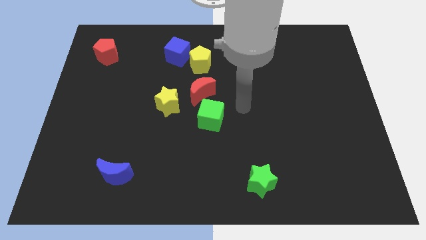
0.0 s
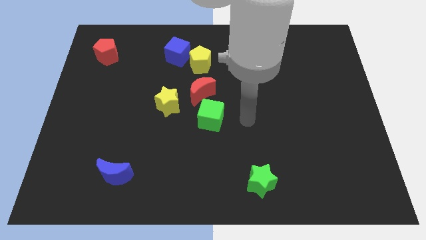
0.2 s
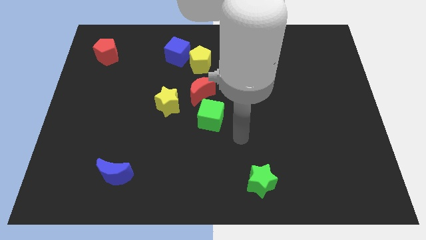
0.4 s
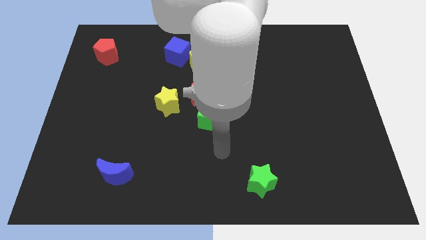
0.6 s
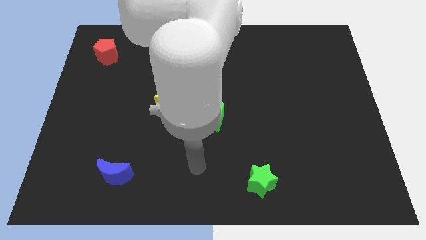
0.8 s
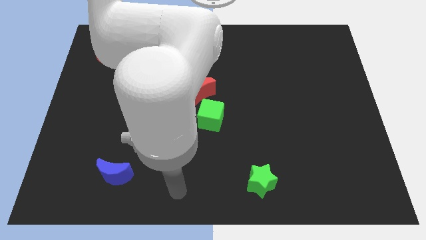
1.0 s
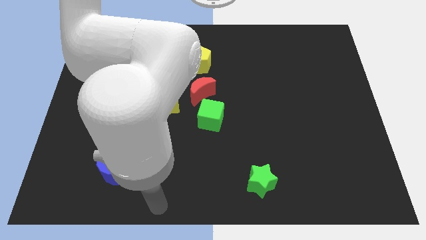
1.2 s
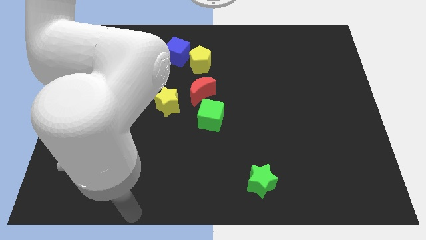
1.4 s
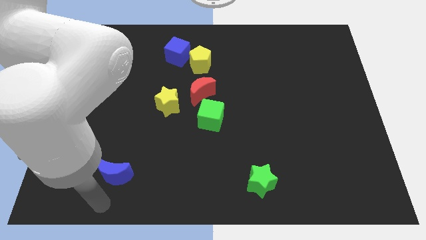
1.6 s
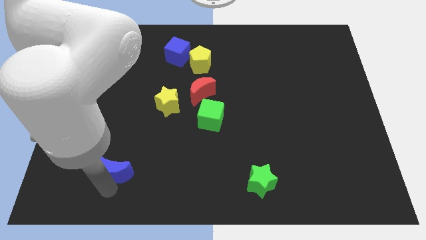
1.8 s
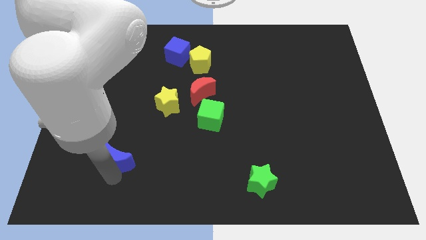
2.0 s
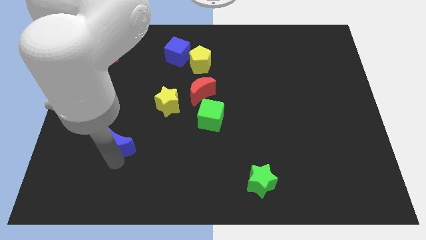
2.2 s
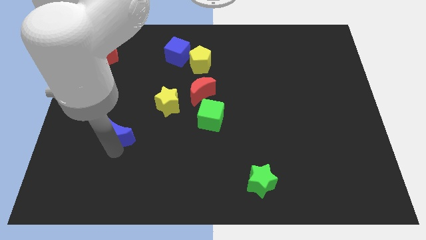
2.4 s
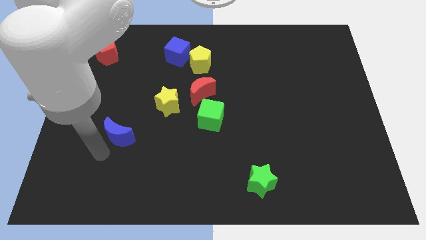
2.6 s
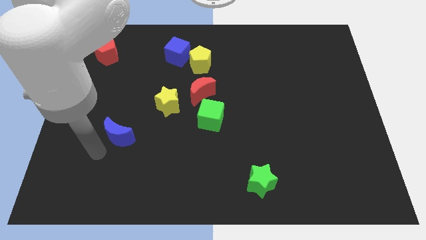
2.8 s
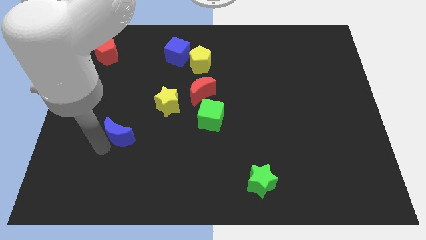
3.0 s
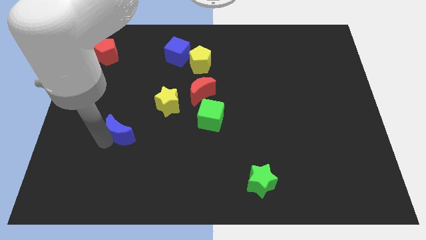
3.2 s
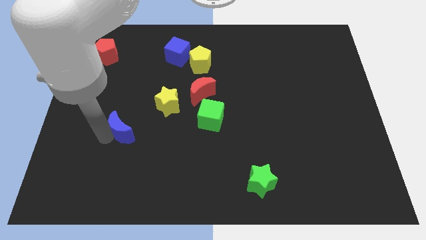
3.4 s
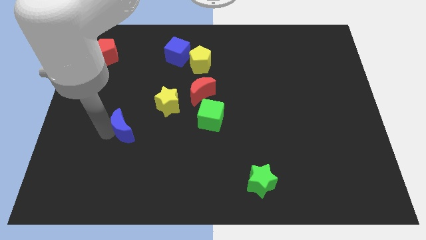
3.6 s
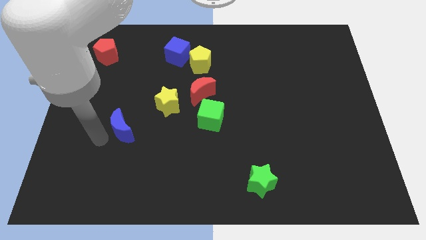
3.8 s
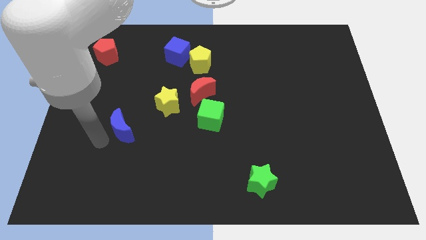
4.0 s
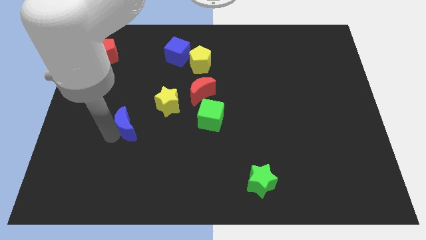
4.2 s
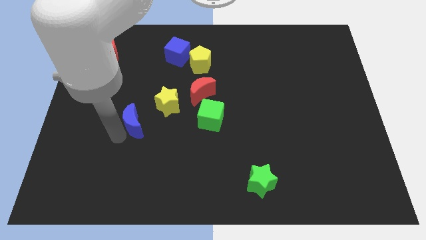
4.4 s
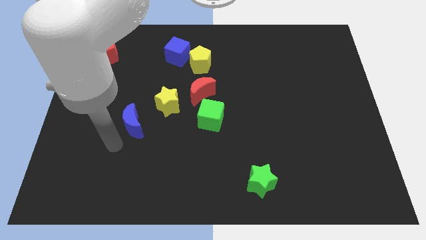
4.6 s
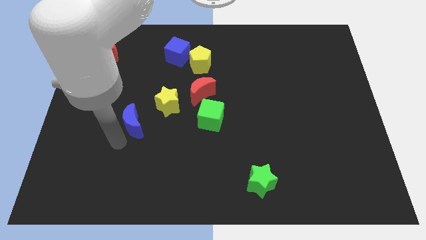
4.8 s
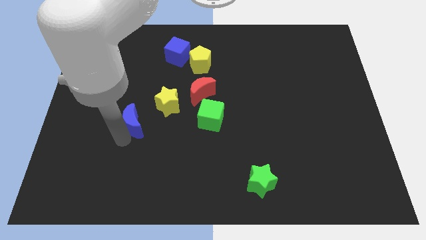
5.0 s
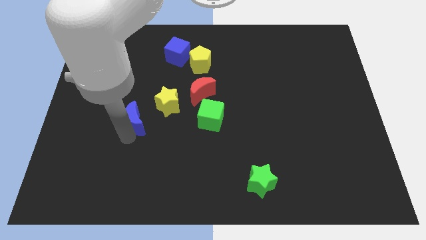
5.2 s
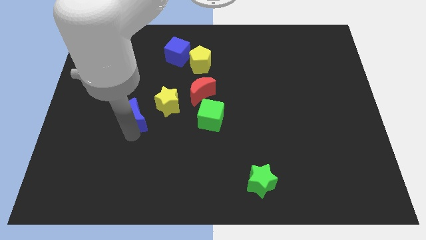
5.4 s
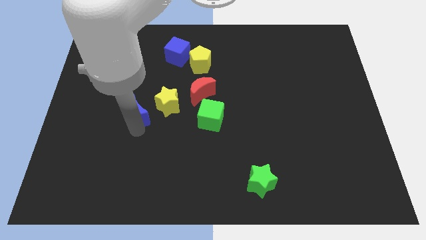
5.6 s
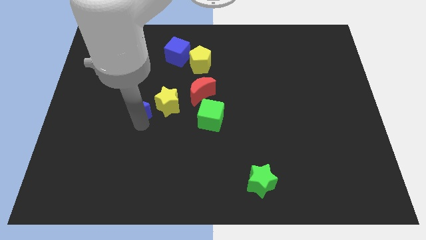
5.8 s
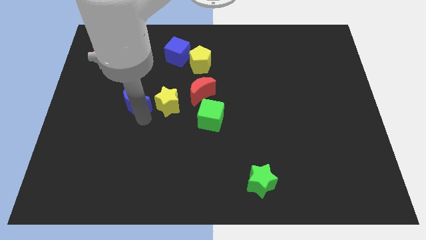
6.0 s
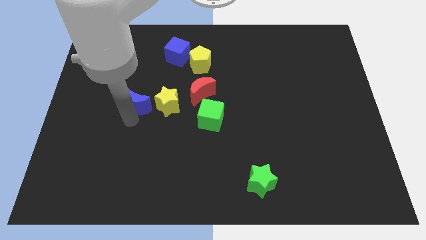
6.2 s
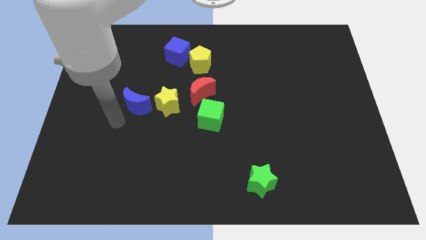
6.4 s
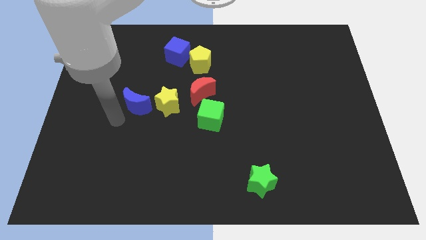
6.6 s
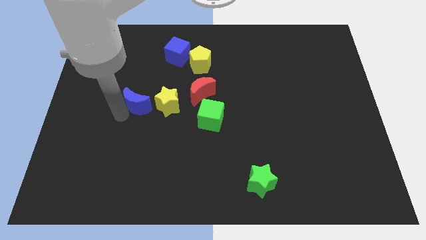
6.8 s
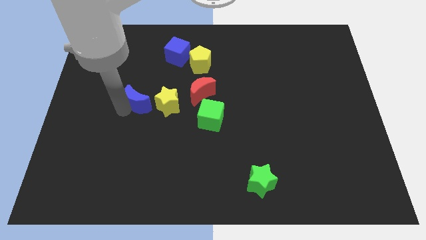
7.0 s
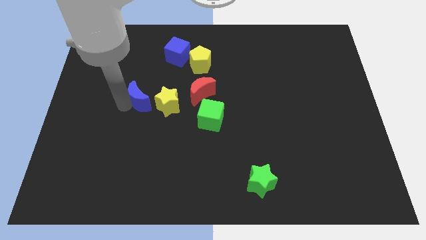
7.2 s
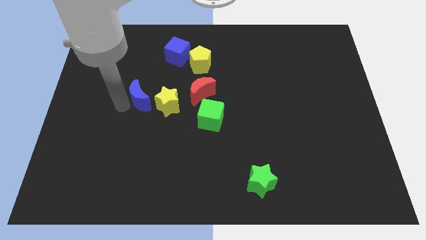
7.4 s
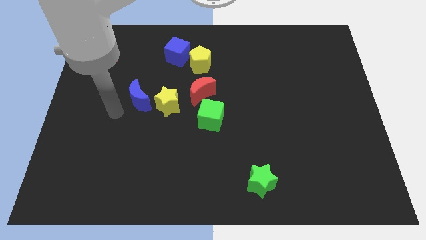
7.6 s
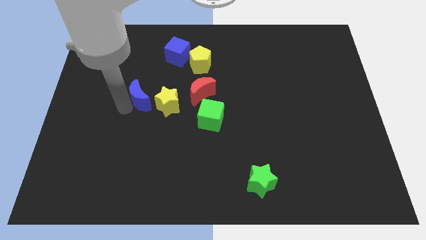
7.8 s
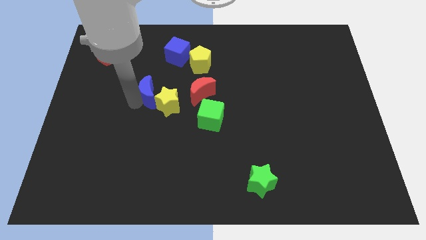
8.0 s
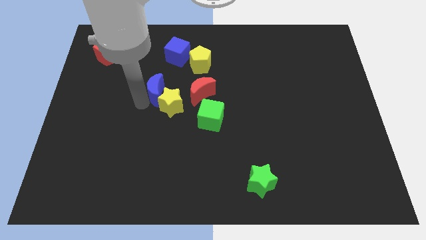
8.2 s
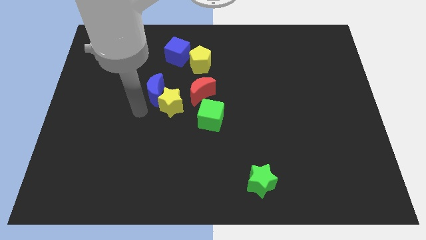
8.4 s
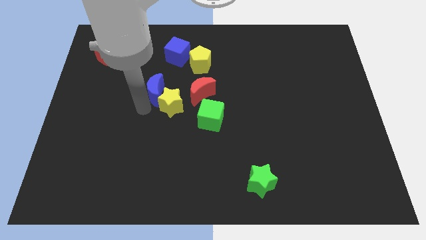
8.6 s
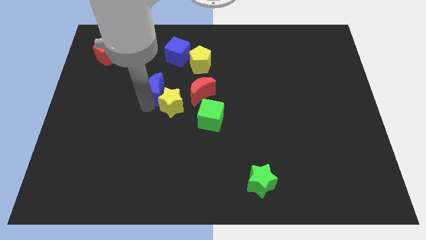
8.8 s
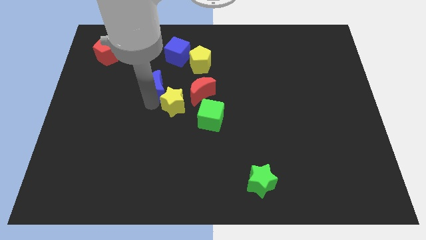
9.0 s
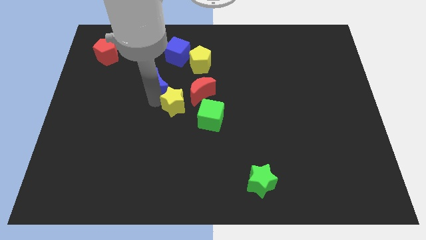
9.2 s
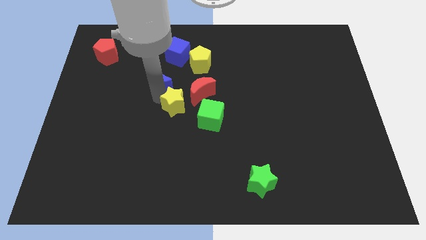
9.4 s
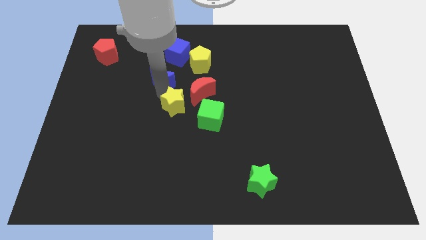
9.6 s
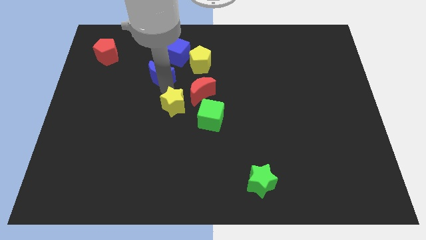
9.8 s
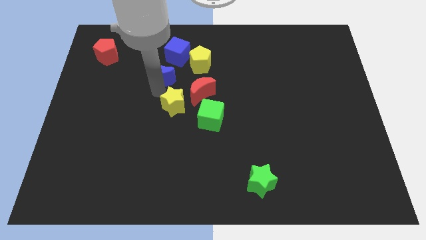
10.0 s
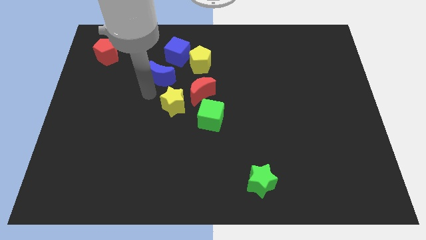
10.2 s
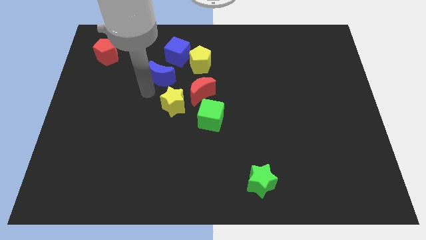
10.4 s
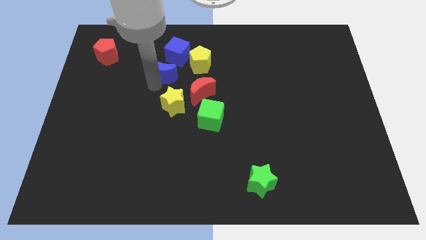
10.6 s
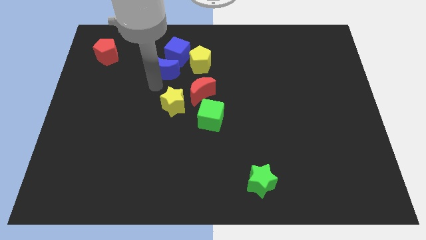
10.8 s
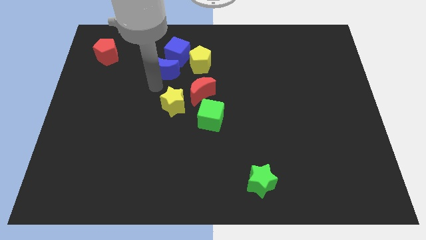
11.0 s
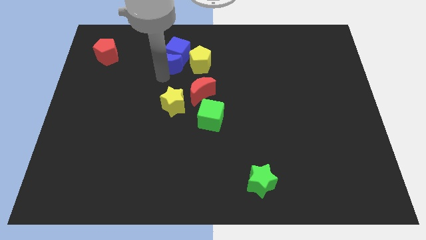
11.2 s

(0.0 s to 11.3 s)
move the blue moon to the blue cube
